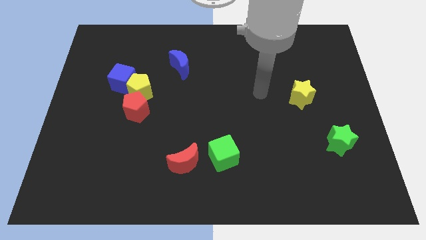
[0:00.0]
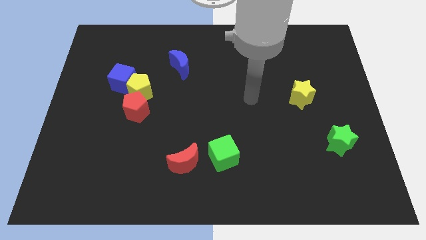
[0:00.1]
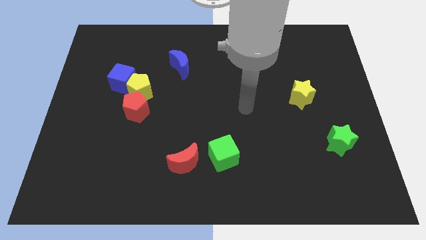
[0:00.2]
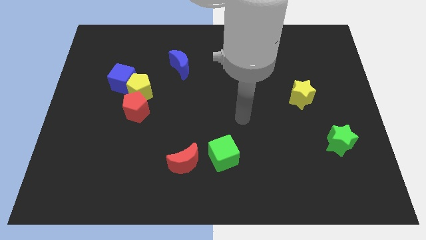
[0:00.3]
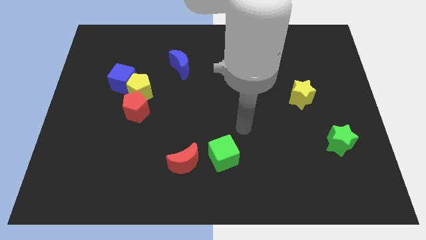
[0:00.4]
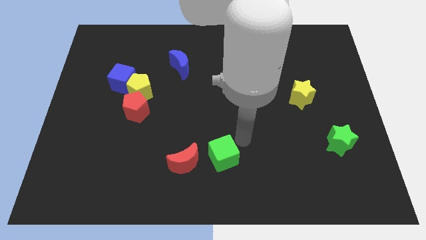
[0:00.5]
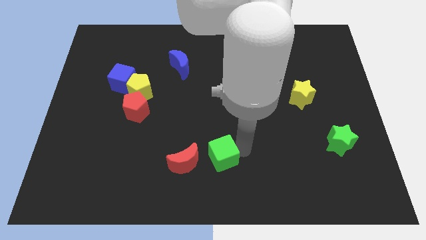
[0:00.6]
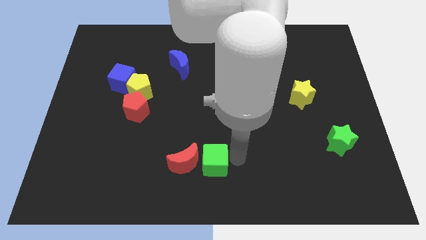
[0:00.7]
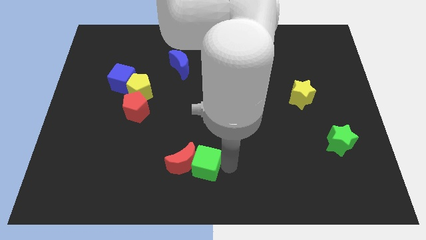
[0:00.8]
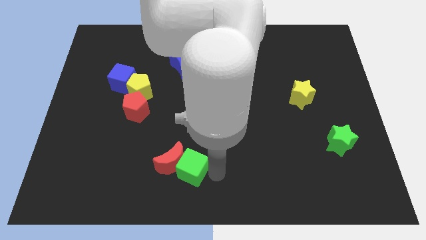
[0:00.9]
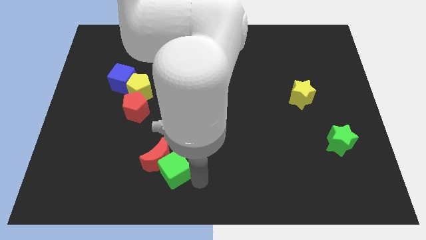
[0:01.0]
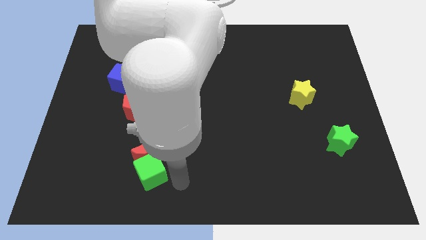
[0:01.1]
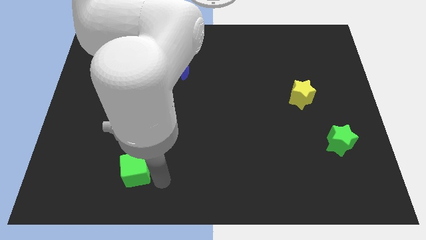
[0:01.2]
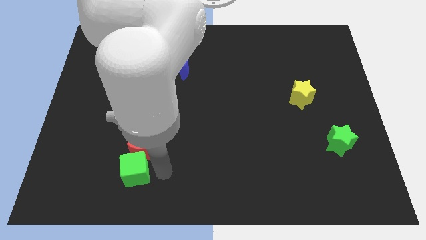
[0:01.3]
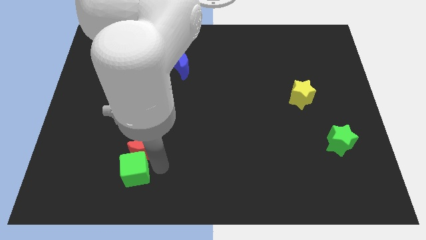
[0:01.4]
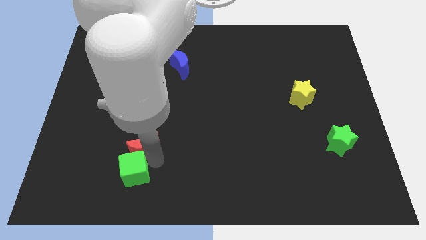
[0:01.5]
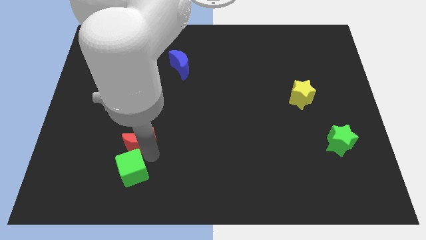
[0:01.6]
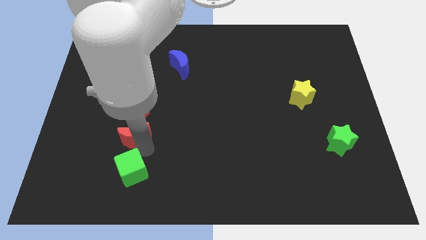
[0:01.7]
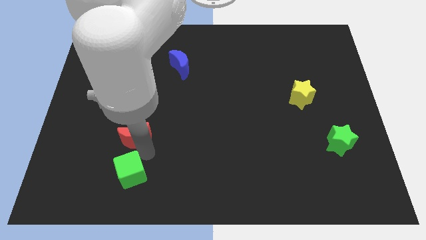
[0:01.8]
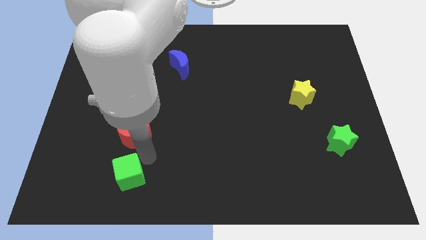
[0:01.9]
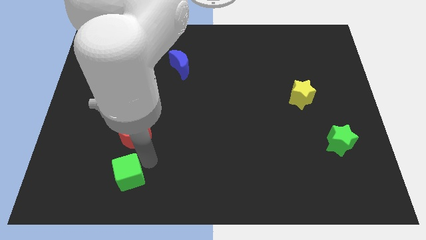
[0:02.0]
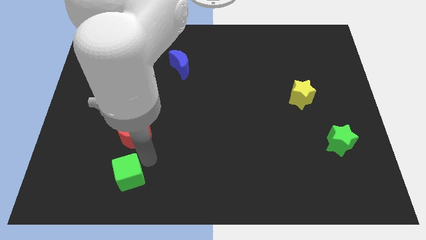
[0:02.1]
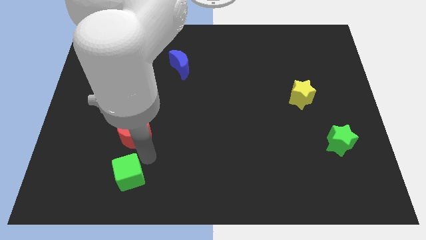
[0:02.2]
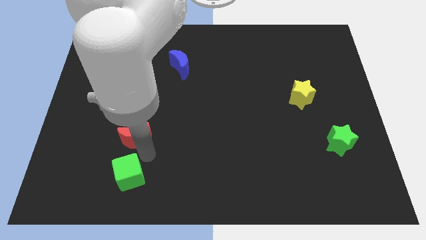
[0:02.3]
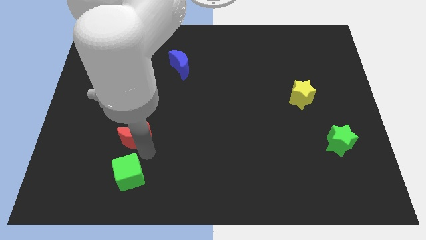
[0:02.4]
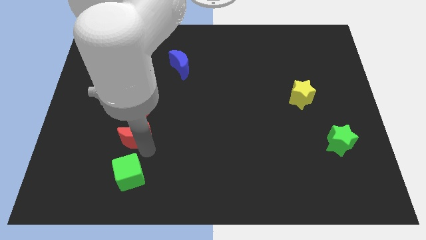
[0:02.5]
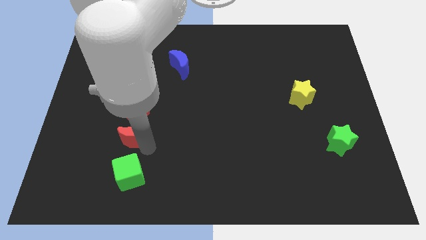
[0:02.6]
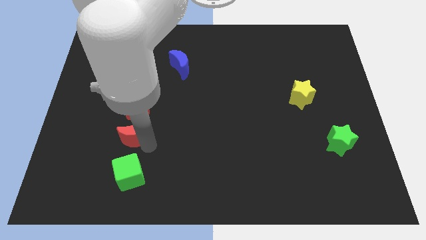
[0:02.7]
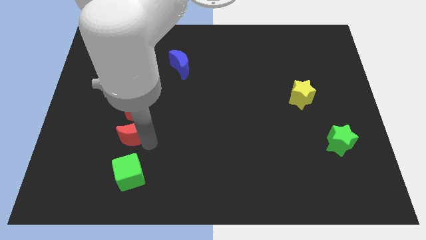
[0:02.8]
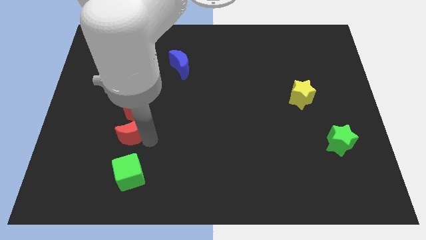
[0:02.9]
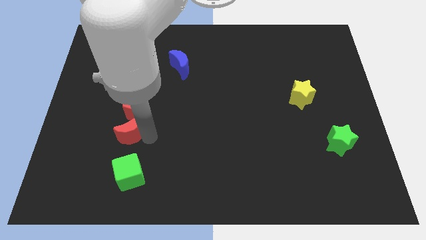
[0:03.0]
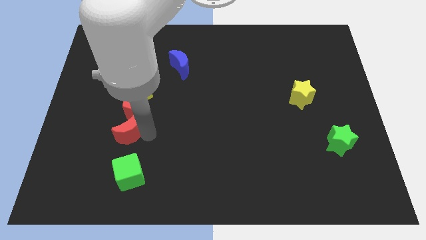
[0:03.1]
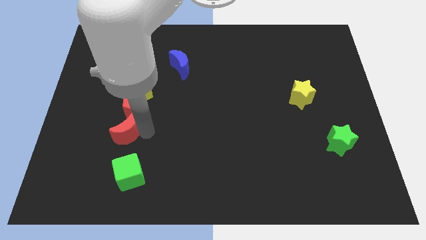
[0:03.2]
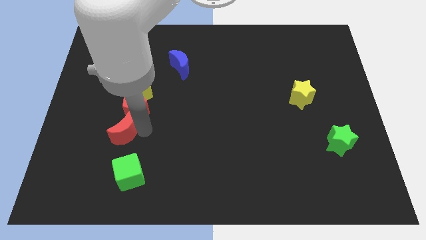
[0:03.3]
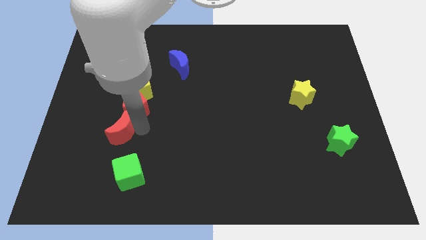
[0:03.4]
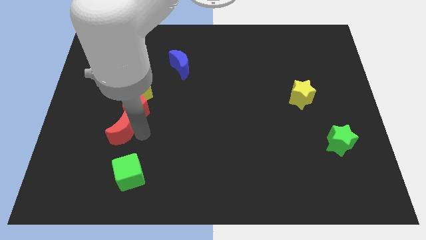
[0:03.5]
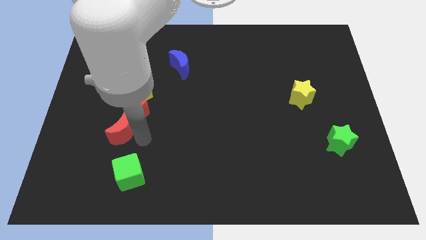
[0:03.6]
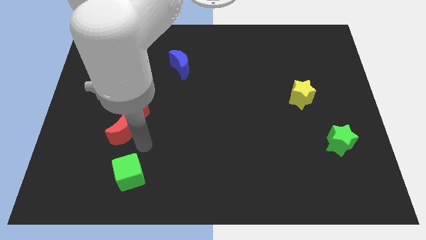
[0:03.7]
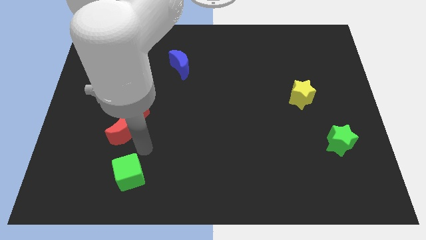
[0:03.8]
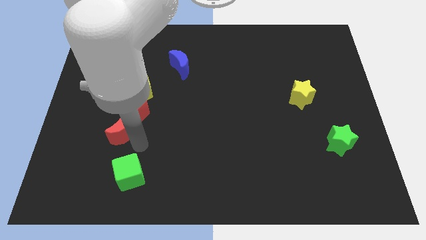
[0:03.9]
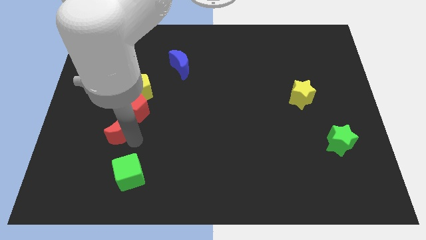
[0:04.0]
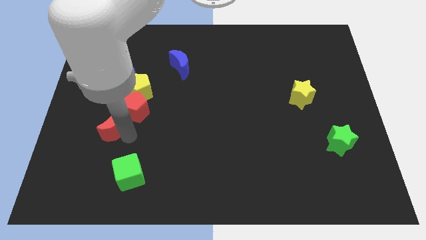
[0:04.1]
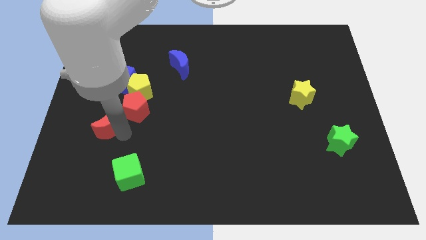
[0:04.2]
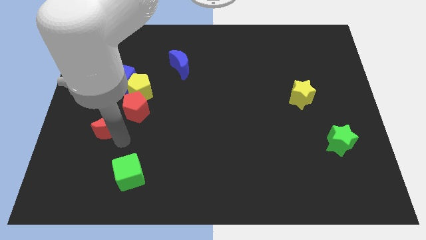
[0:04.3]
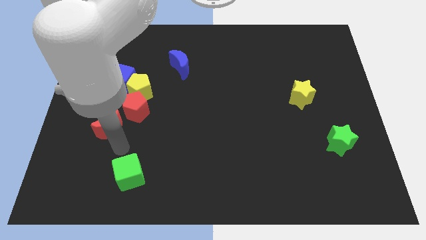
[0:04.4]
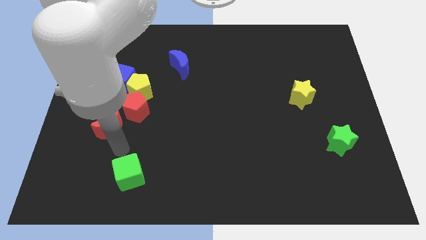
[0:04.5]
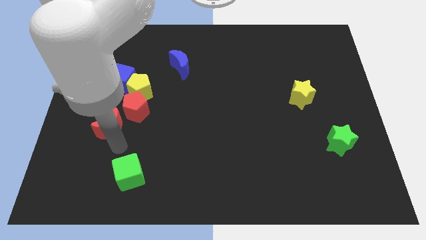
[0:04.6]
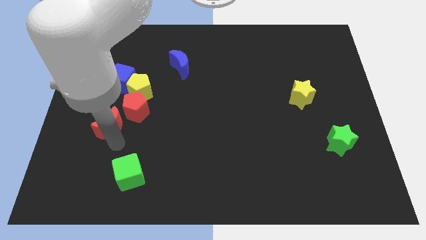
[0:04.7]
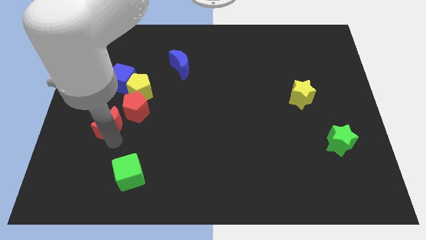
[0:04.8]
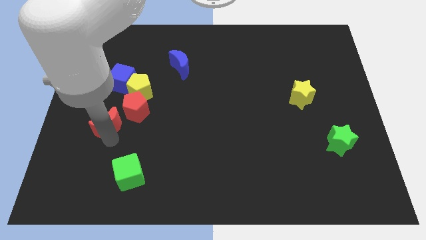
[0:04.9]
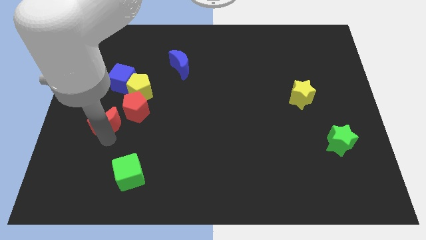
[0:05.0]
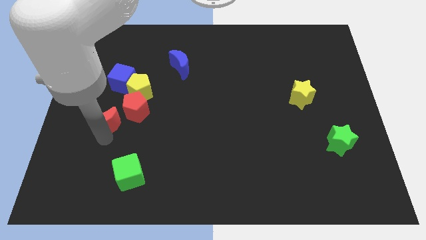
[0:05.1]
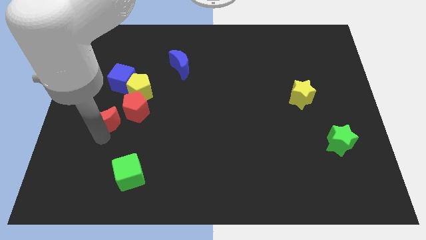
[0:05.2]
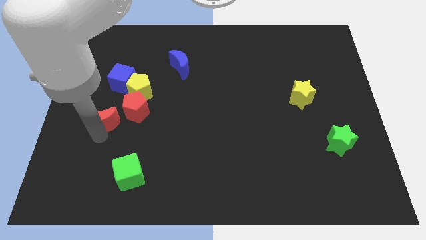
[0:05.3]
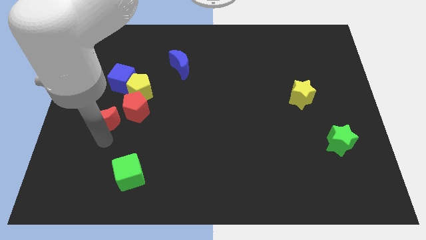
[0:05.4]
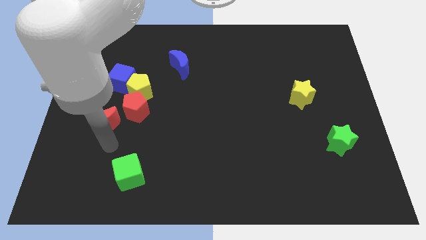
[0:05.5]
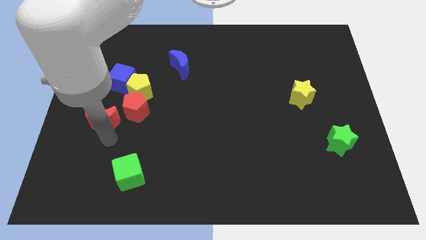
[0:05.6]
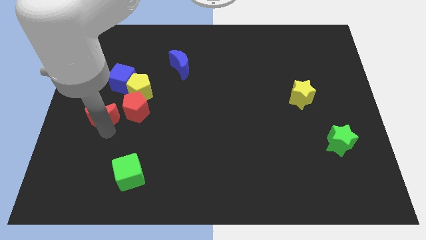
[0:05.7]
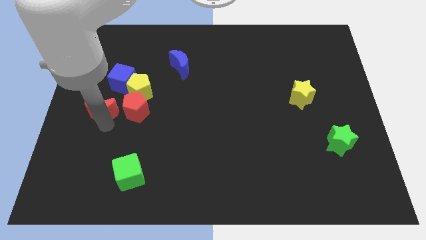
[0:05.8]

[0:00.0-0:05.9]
put the red moon diagonally down and to the left of the blue cube

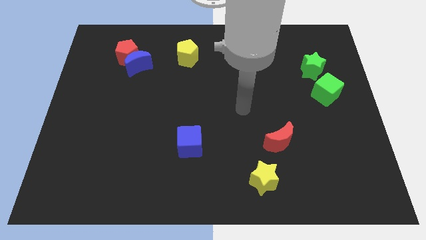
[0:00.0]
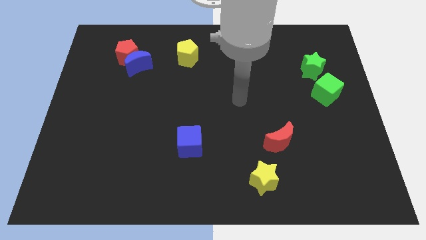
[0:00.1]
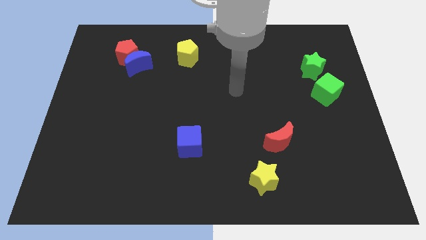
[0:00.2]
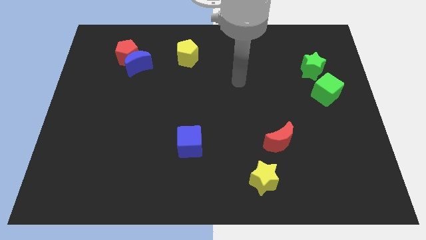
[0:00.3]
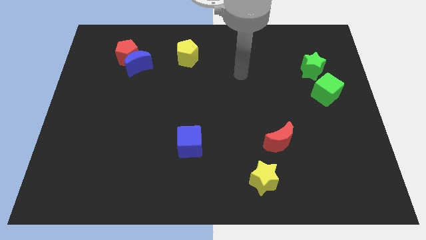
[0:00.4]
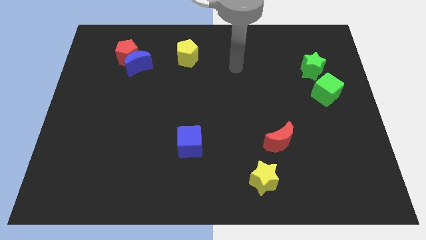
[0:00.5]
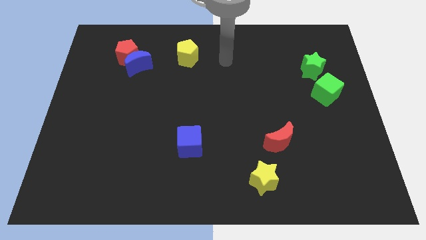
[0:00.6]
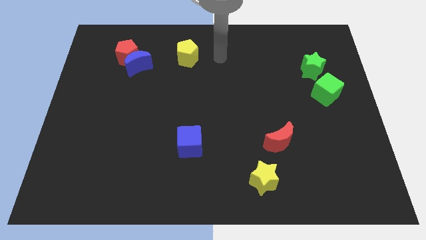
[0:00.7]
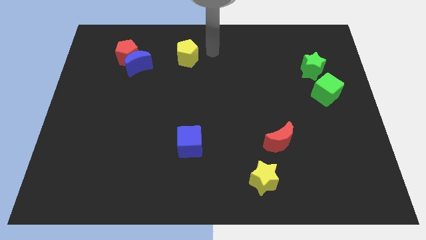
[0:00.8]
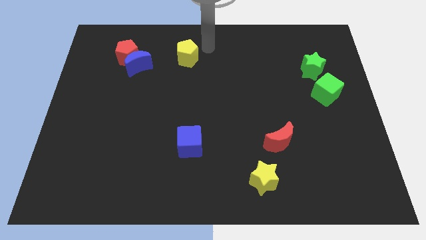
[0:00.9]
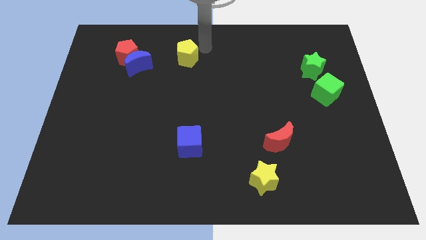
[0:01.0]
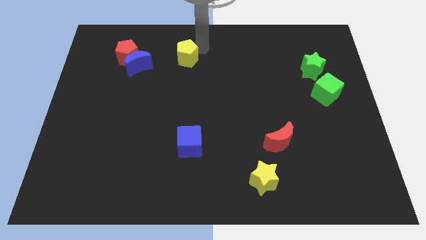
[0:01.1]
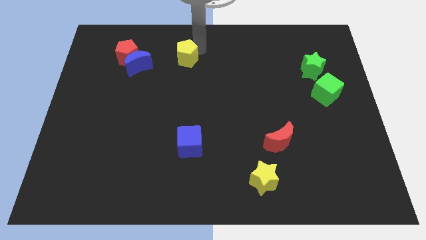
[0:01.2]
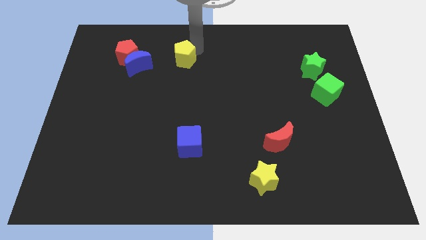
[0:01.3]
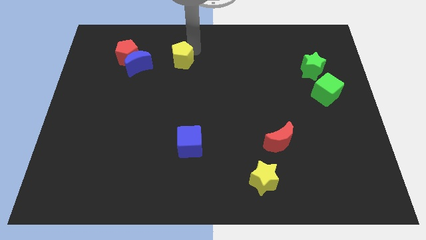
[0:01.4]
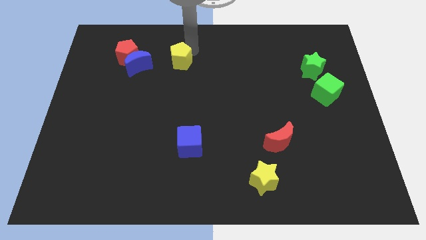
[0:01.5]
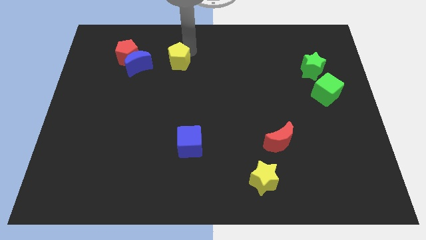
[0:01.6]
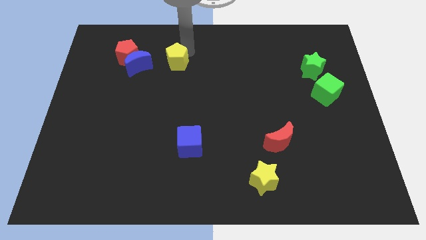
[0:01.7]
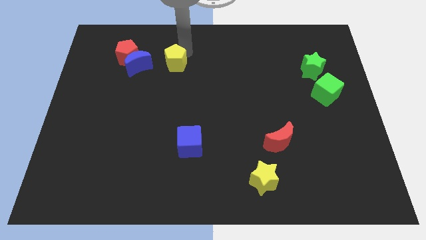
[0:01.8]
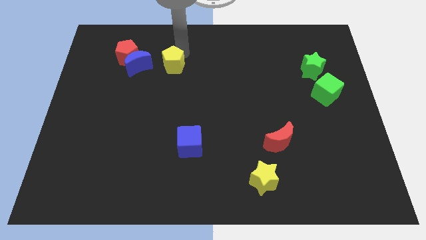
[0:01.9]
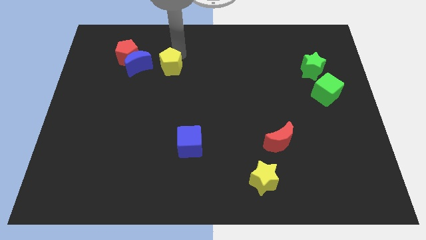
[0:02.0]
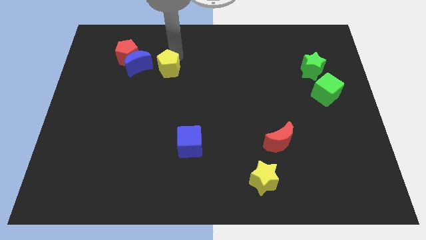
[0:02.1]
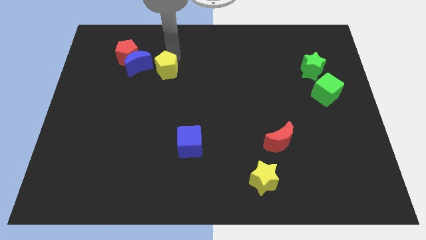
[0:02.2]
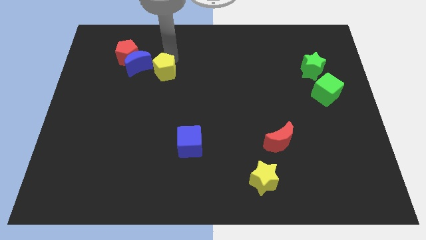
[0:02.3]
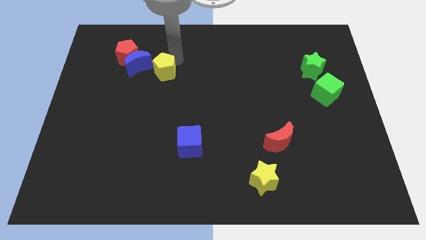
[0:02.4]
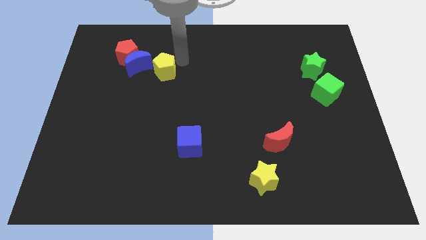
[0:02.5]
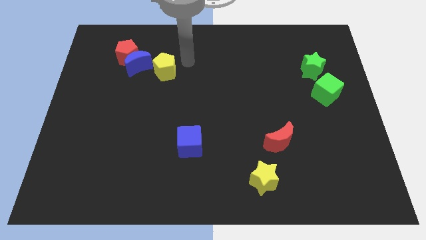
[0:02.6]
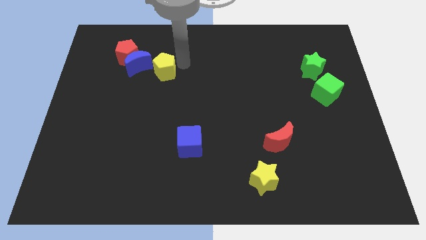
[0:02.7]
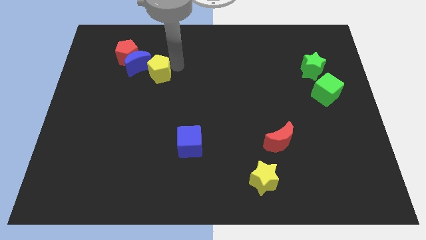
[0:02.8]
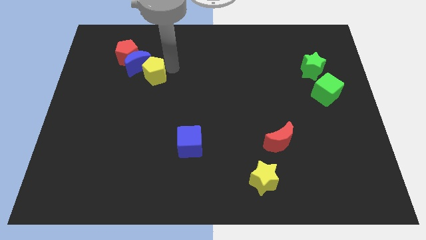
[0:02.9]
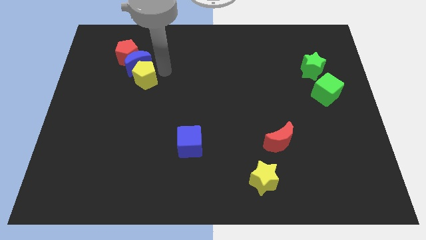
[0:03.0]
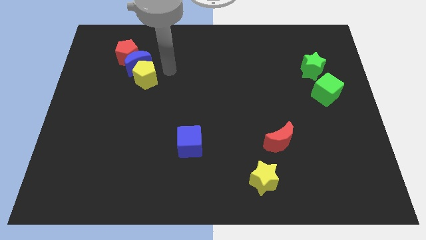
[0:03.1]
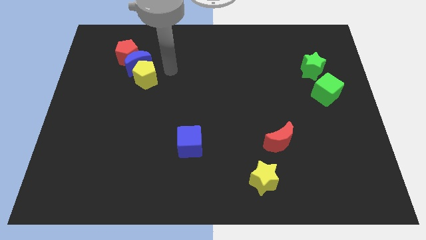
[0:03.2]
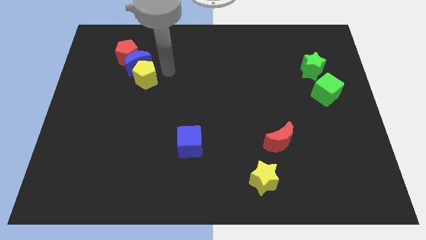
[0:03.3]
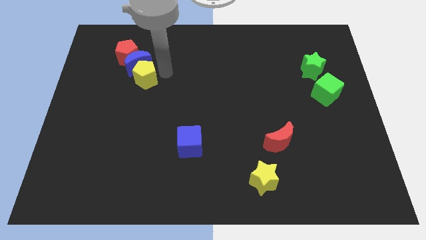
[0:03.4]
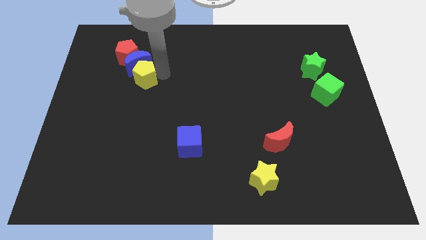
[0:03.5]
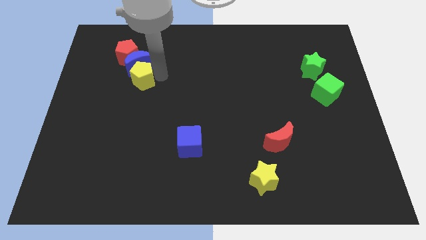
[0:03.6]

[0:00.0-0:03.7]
move the yellow pentagon to the bottom side of the red pentagon
